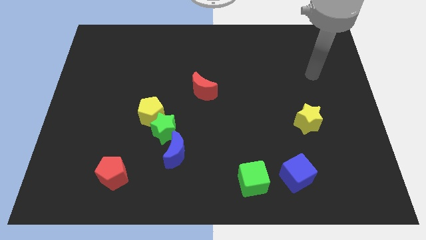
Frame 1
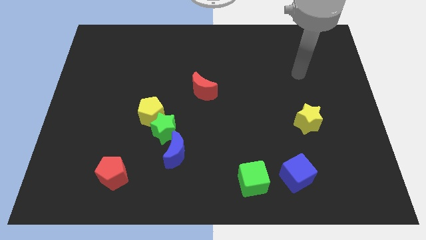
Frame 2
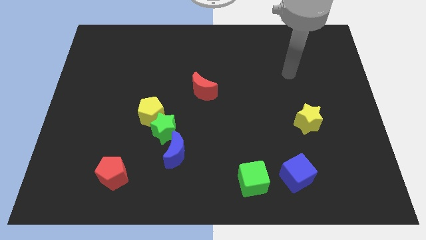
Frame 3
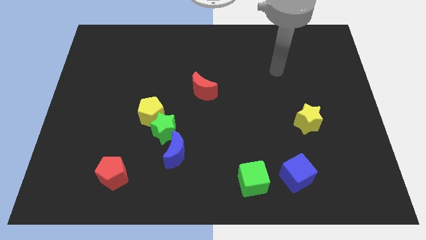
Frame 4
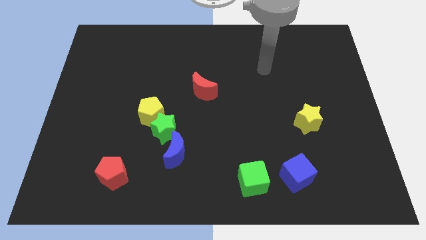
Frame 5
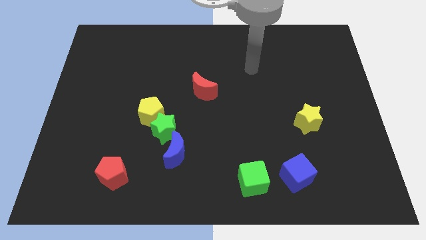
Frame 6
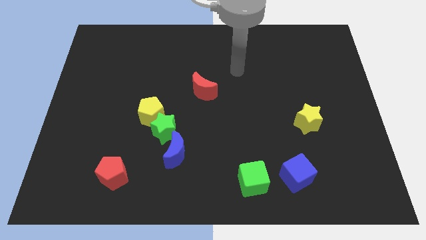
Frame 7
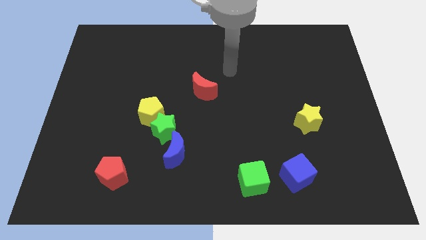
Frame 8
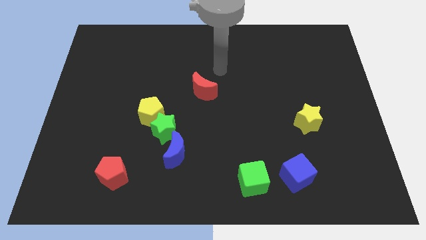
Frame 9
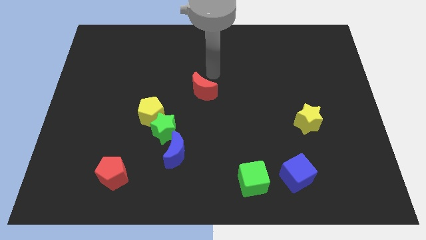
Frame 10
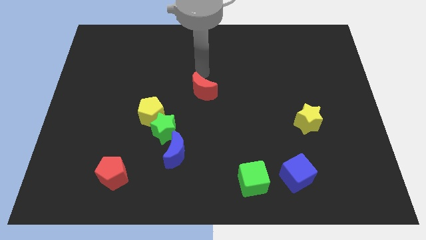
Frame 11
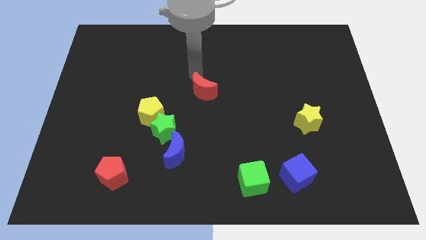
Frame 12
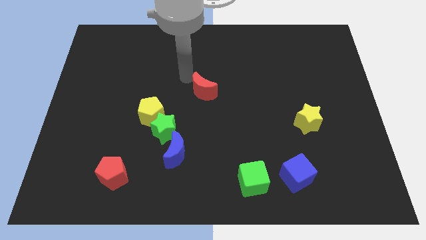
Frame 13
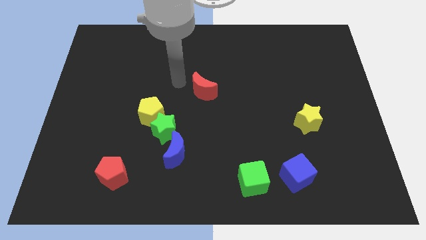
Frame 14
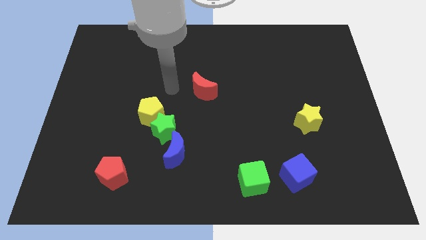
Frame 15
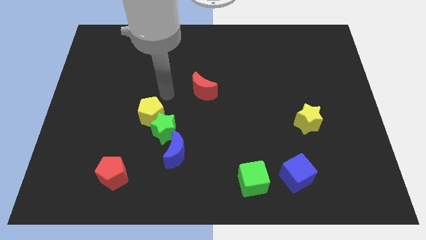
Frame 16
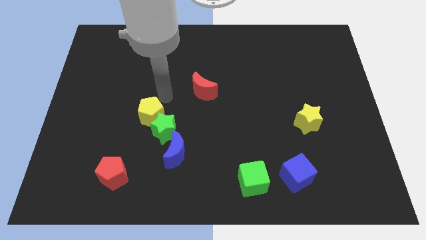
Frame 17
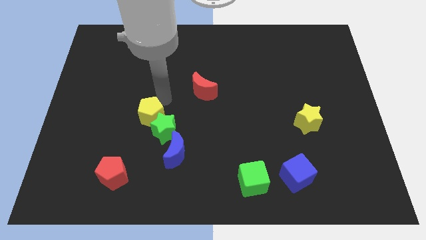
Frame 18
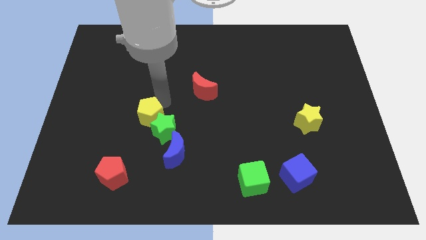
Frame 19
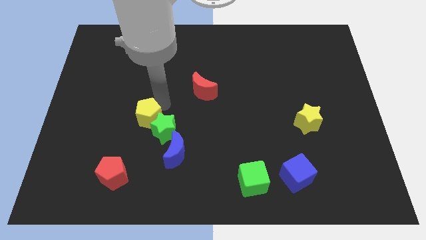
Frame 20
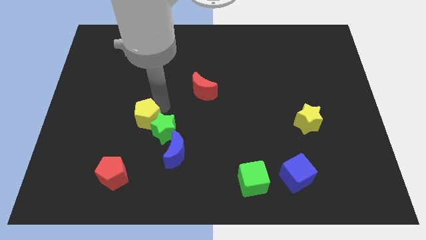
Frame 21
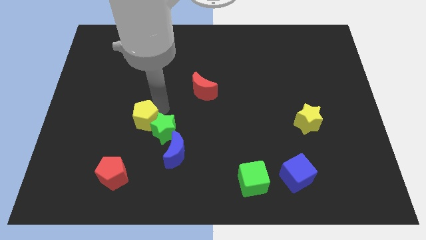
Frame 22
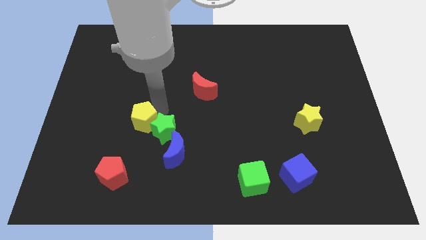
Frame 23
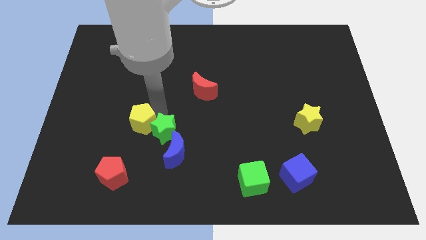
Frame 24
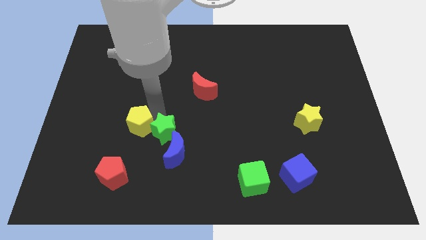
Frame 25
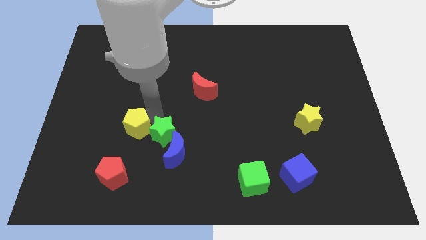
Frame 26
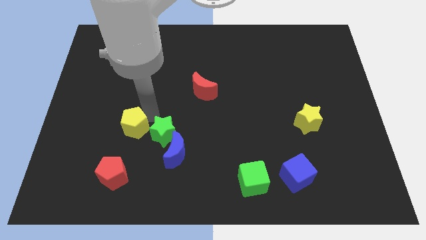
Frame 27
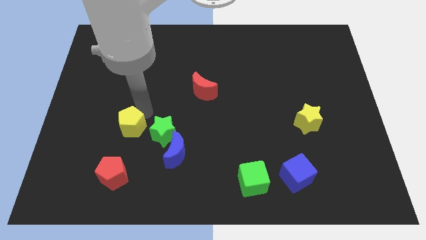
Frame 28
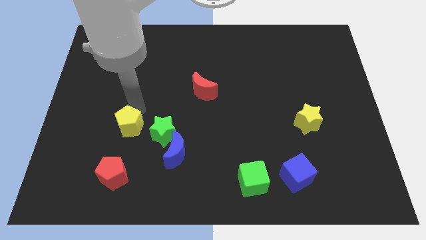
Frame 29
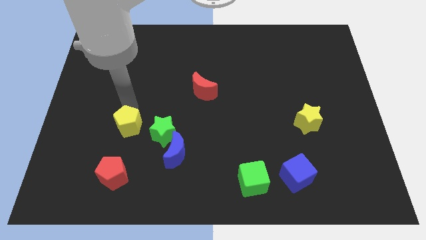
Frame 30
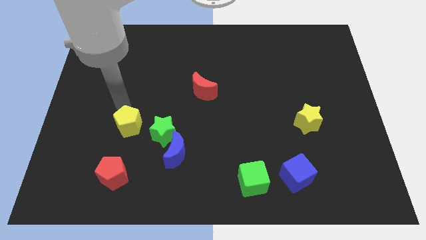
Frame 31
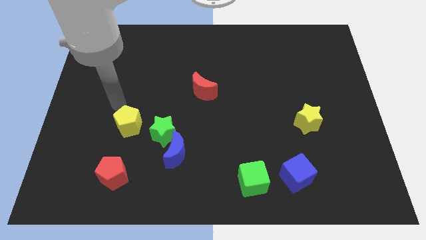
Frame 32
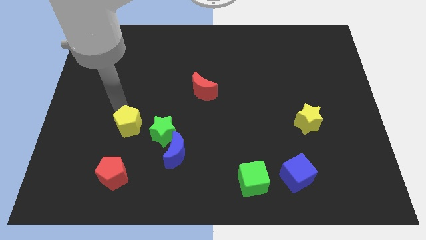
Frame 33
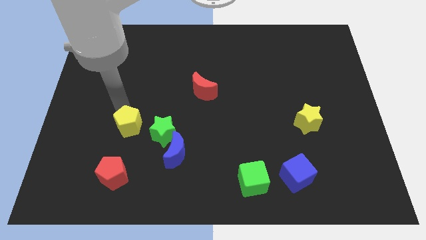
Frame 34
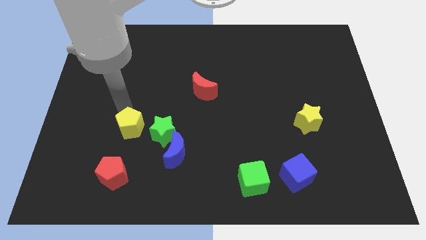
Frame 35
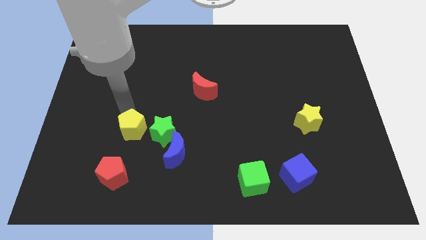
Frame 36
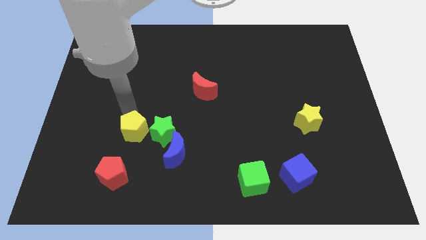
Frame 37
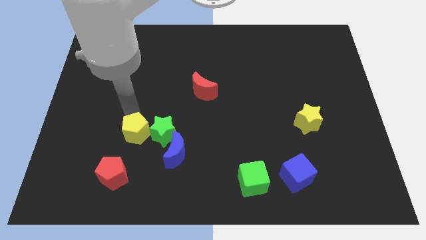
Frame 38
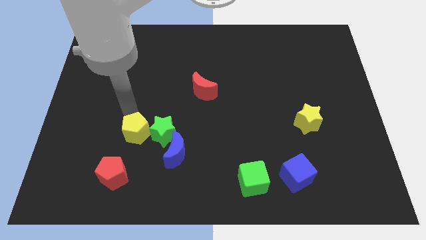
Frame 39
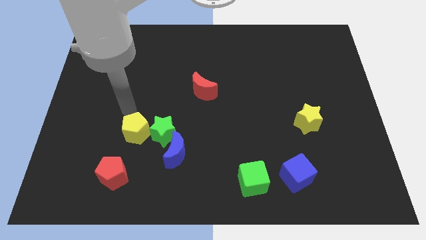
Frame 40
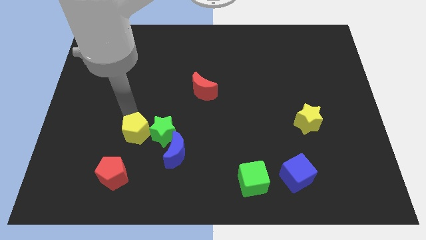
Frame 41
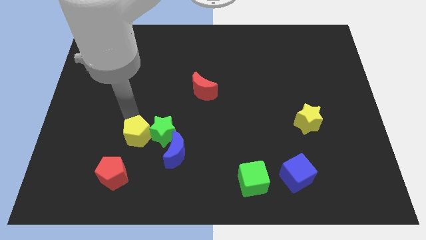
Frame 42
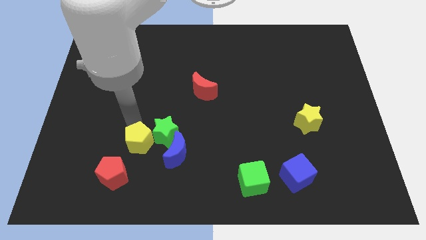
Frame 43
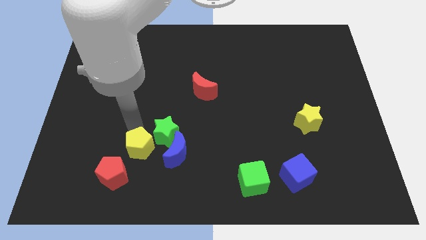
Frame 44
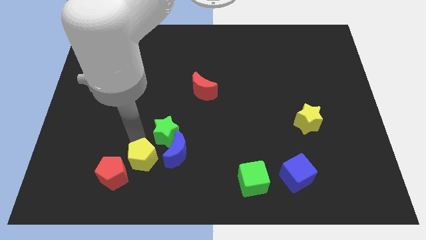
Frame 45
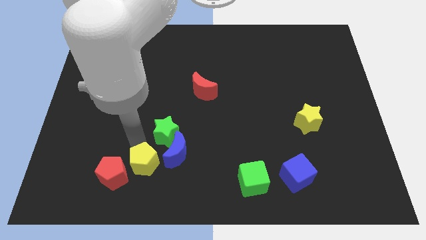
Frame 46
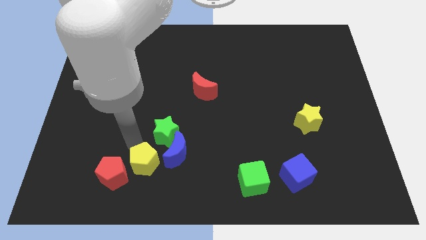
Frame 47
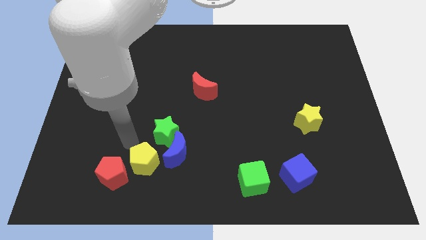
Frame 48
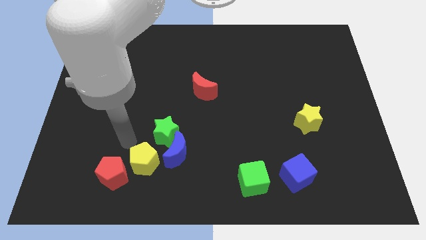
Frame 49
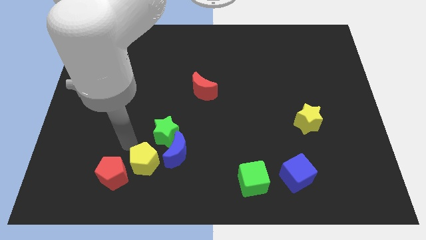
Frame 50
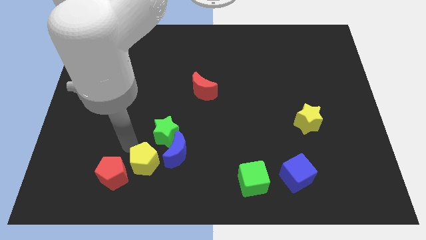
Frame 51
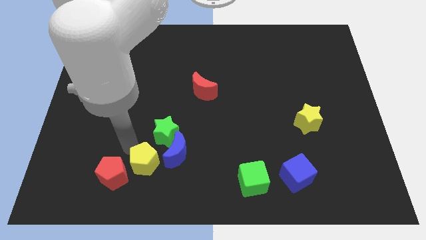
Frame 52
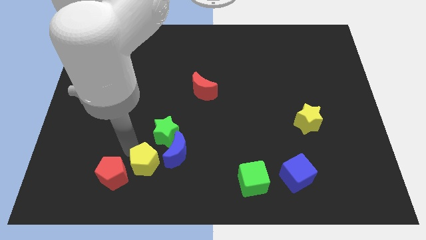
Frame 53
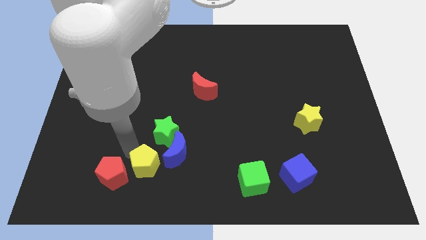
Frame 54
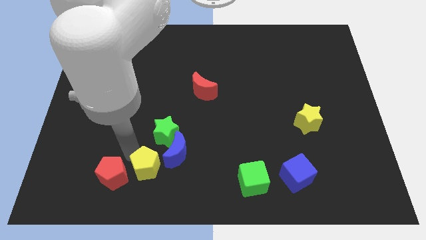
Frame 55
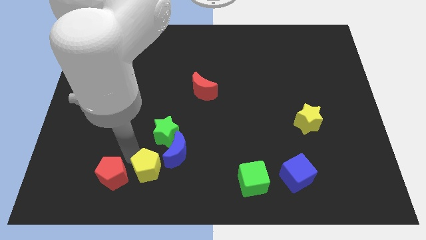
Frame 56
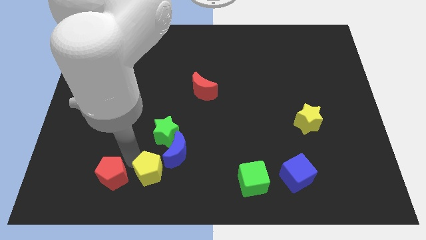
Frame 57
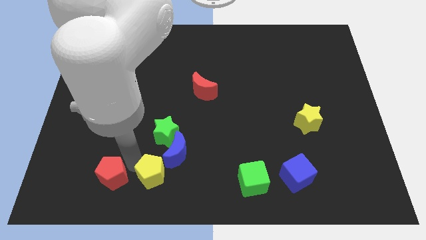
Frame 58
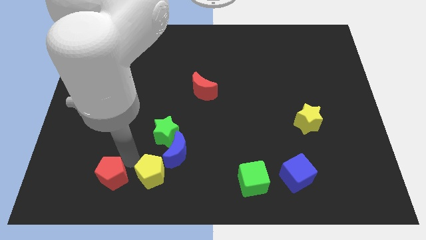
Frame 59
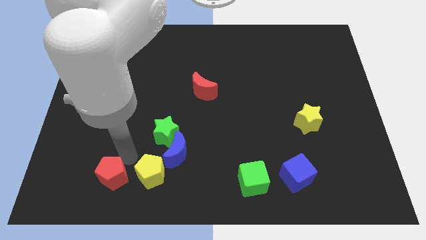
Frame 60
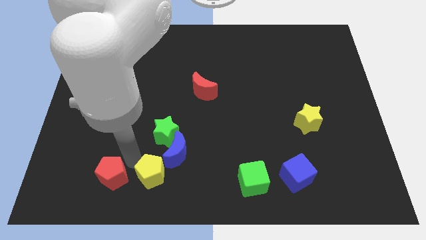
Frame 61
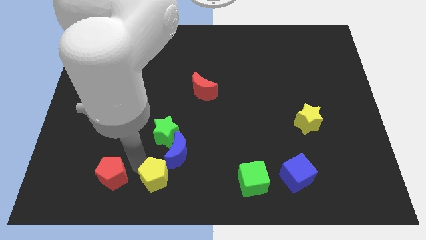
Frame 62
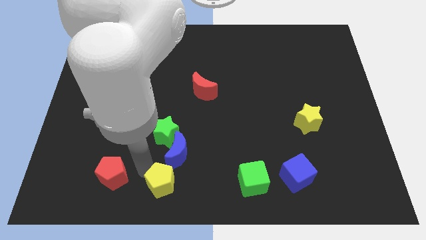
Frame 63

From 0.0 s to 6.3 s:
push the yellow pentagon to the bottom side
